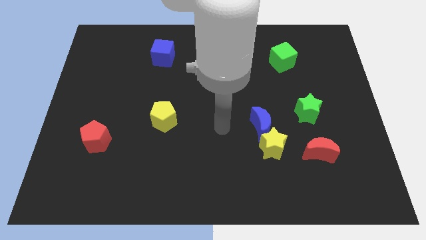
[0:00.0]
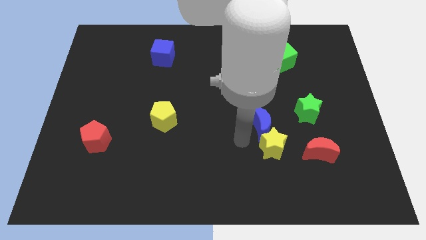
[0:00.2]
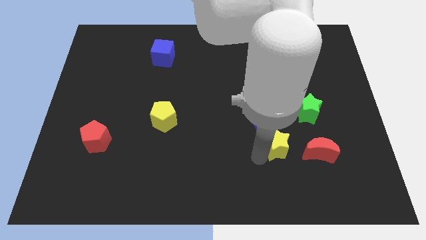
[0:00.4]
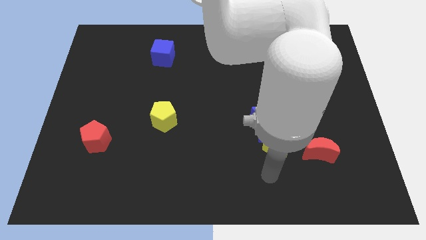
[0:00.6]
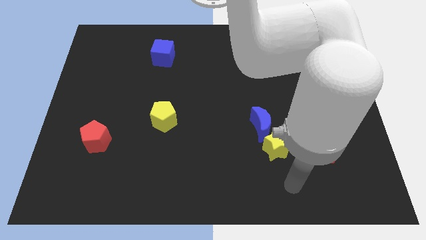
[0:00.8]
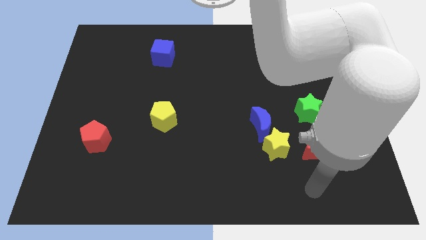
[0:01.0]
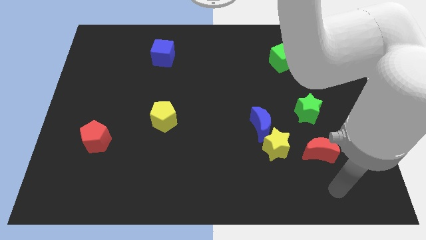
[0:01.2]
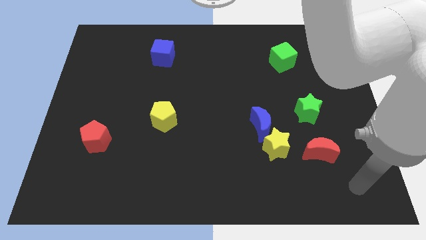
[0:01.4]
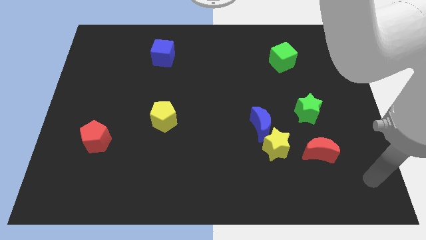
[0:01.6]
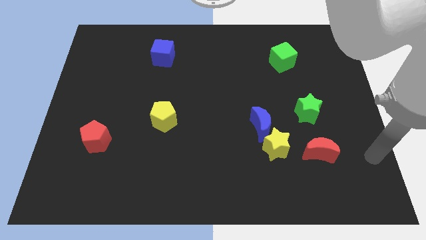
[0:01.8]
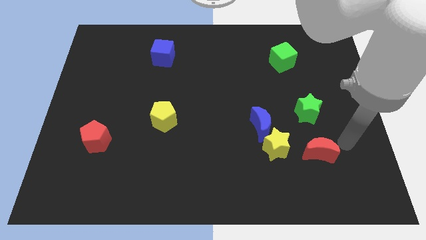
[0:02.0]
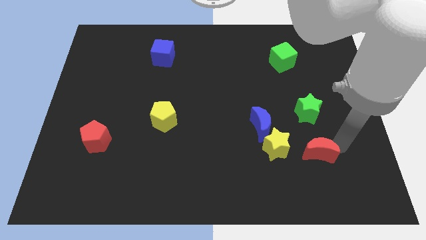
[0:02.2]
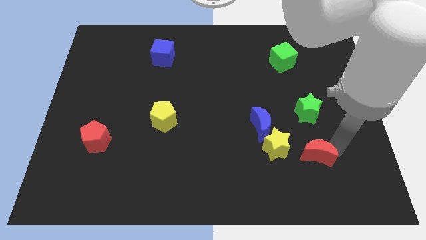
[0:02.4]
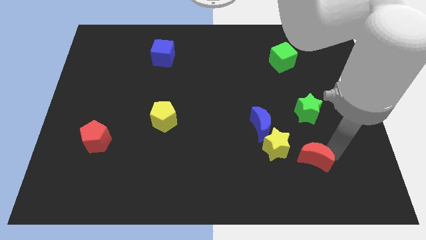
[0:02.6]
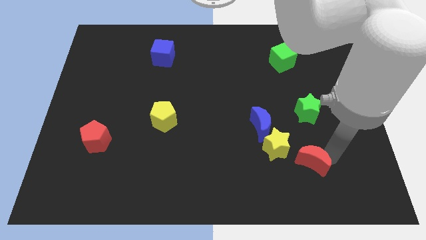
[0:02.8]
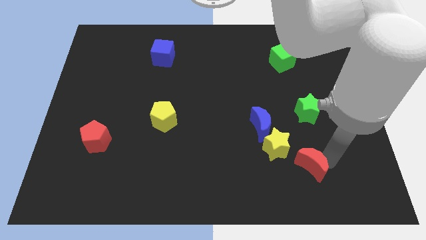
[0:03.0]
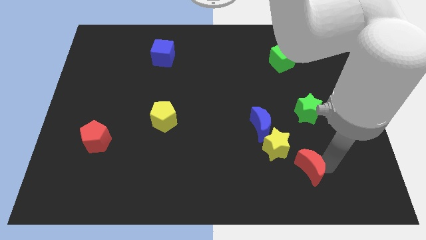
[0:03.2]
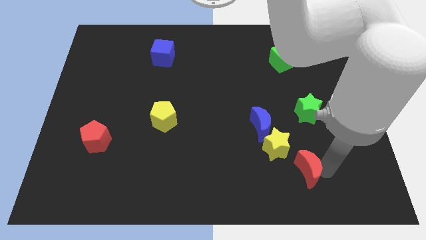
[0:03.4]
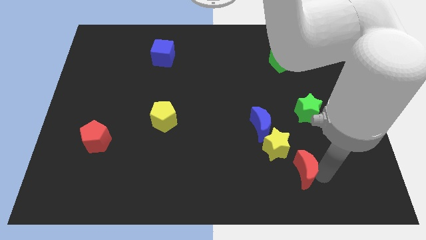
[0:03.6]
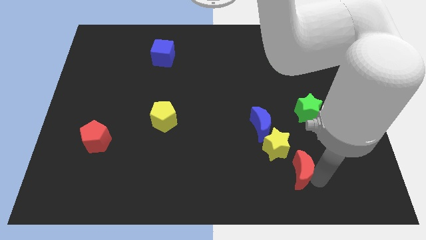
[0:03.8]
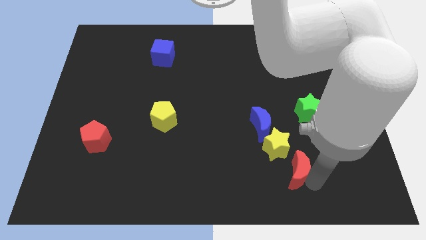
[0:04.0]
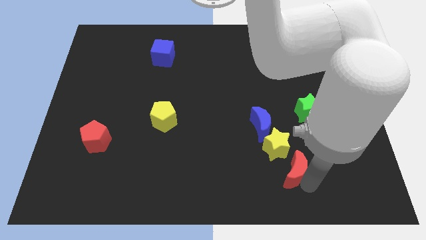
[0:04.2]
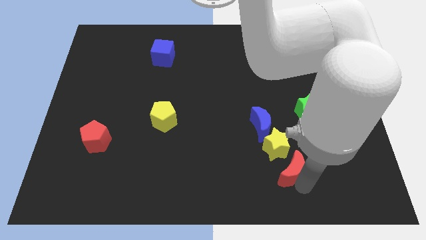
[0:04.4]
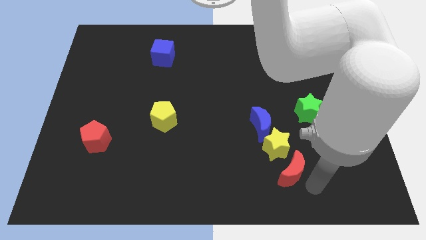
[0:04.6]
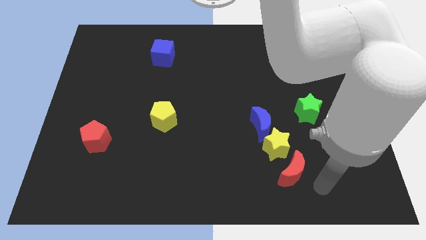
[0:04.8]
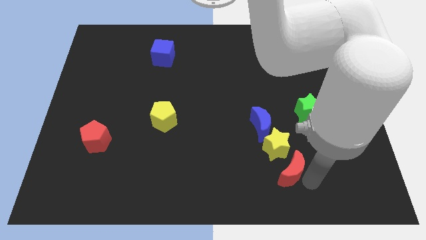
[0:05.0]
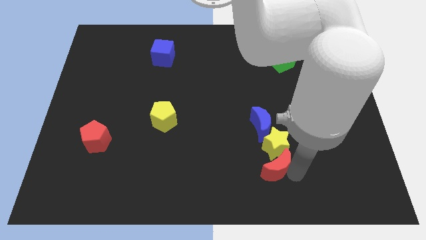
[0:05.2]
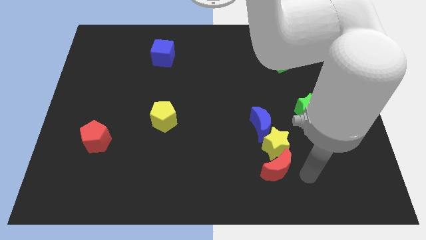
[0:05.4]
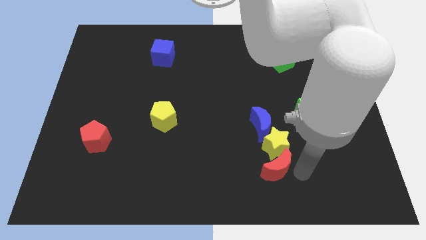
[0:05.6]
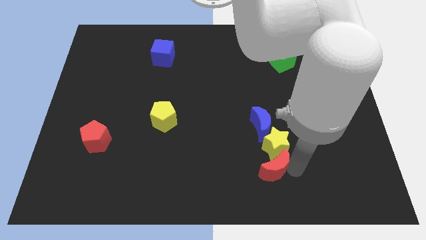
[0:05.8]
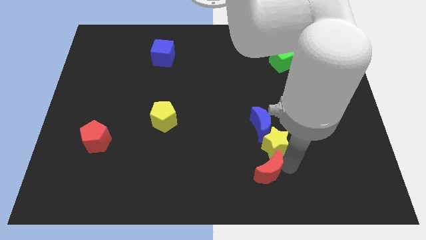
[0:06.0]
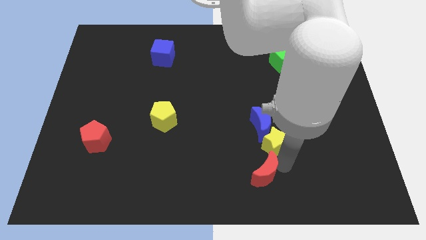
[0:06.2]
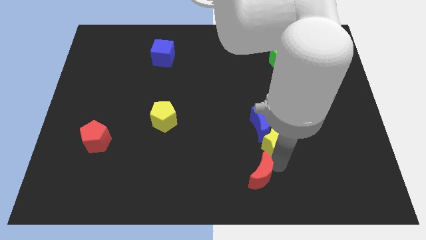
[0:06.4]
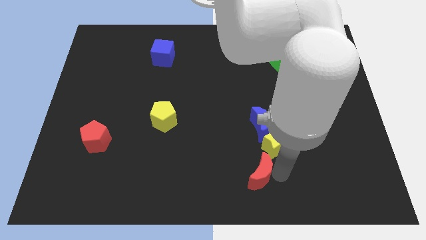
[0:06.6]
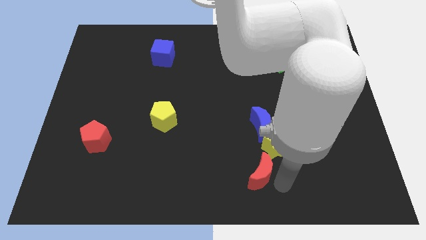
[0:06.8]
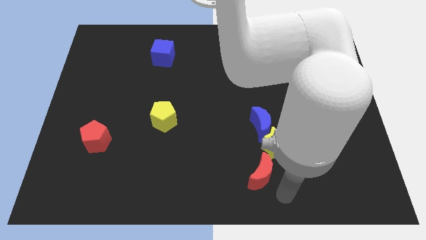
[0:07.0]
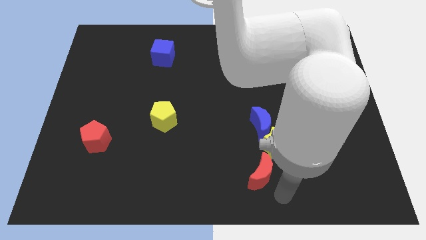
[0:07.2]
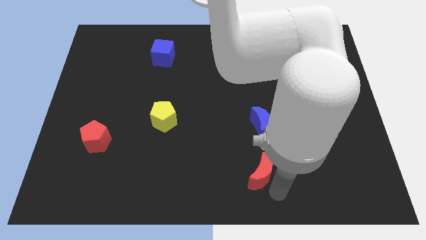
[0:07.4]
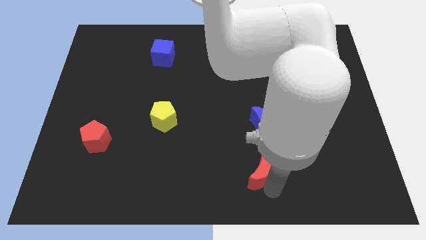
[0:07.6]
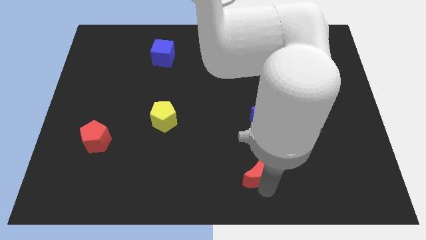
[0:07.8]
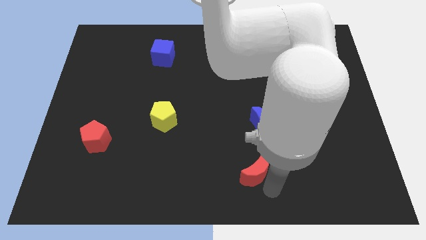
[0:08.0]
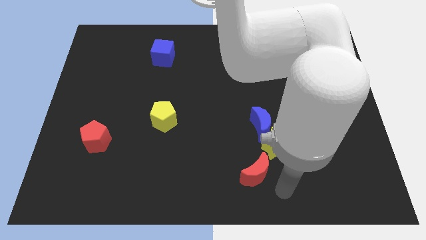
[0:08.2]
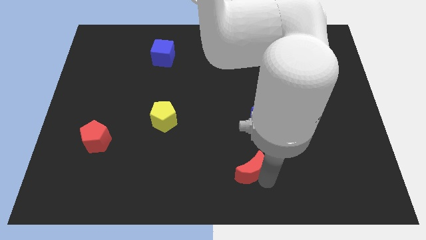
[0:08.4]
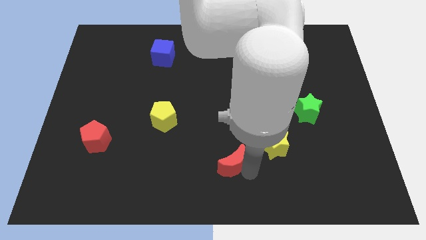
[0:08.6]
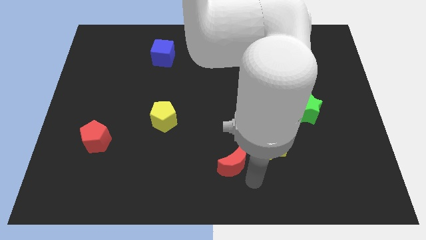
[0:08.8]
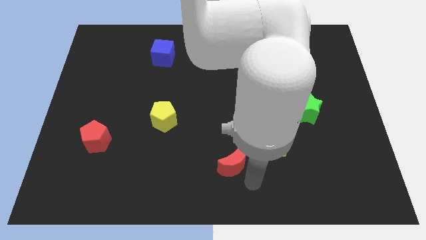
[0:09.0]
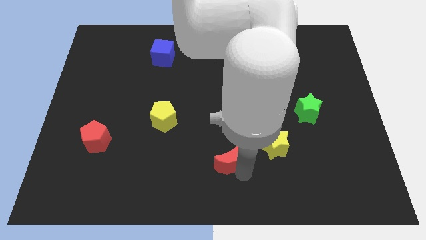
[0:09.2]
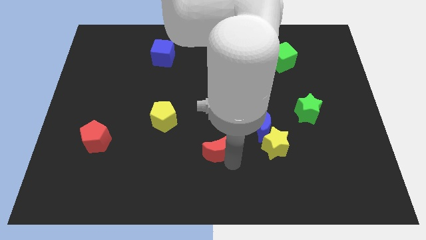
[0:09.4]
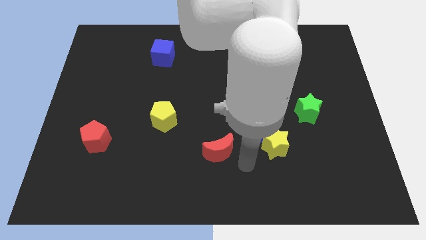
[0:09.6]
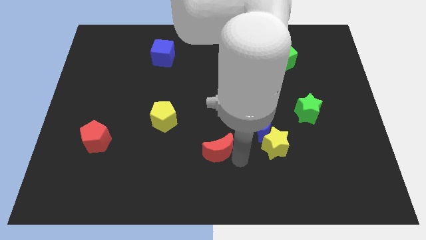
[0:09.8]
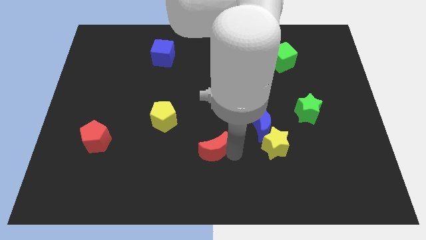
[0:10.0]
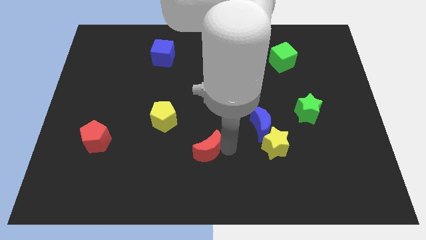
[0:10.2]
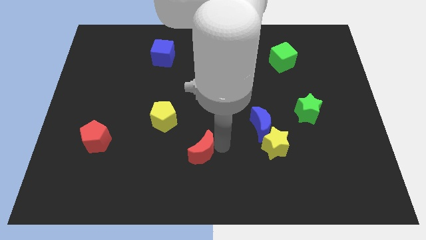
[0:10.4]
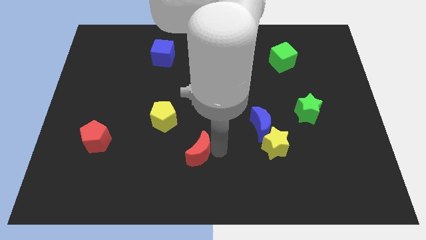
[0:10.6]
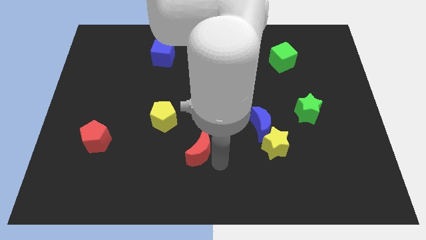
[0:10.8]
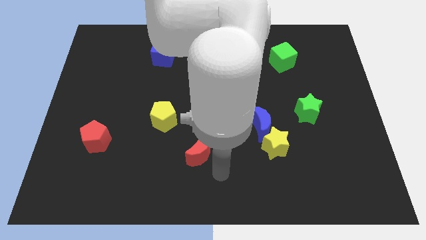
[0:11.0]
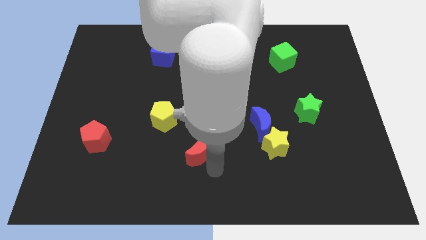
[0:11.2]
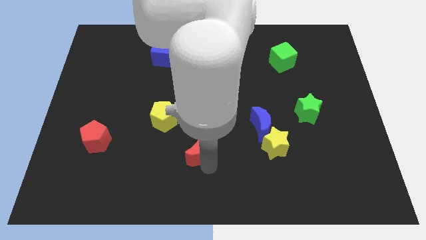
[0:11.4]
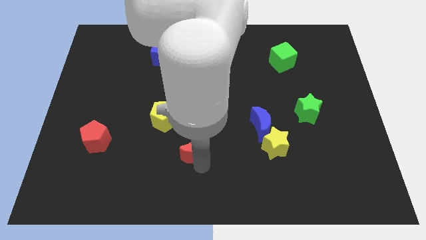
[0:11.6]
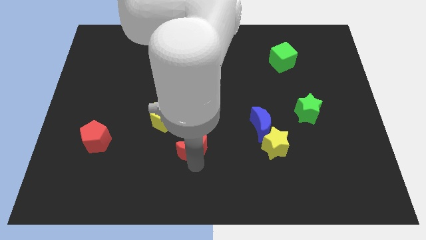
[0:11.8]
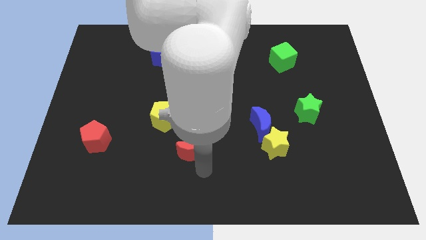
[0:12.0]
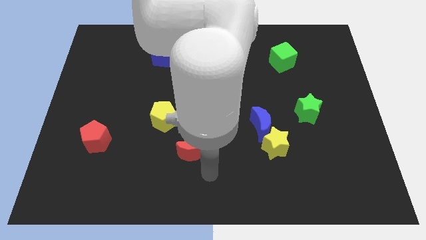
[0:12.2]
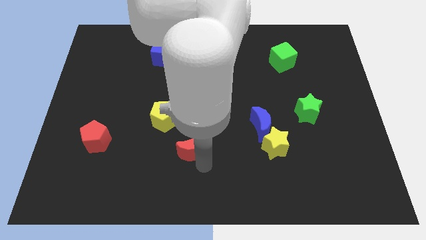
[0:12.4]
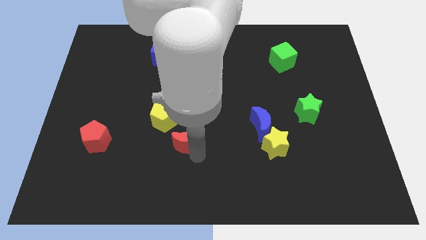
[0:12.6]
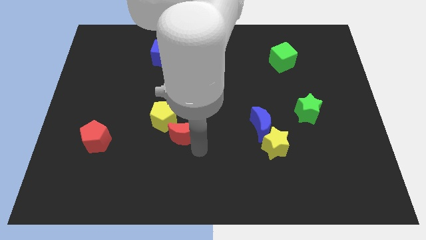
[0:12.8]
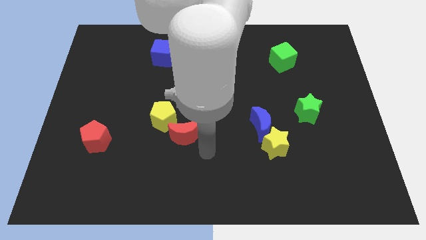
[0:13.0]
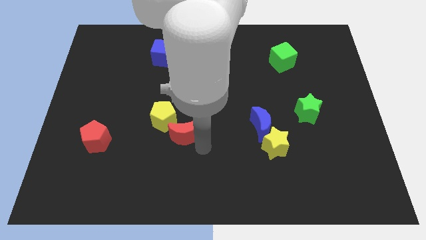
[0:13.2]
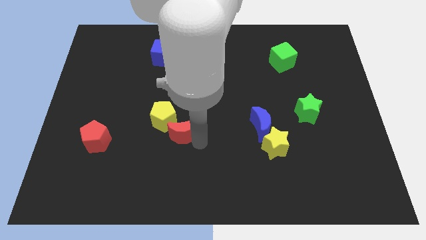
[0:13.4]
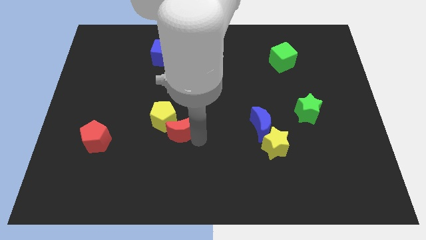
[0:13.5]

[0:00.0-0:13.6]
put the red moon to the yellow pentagon

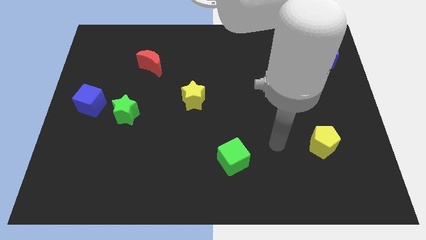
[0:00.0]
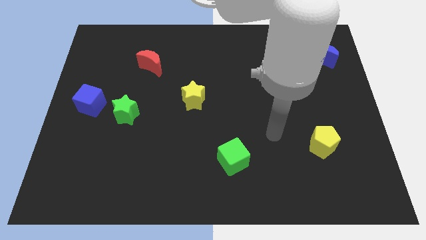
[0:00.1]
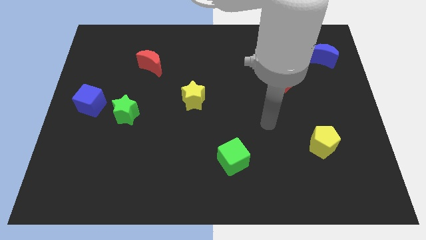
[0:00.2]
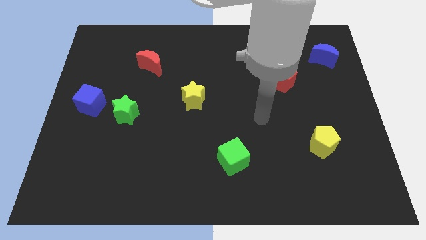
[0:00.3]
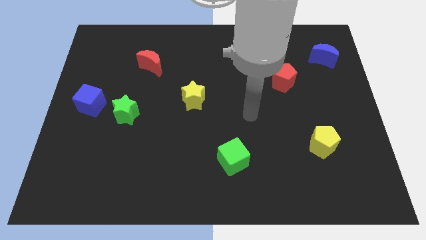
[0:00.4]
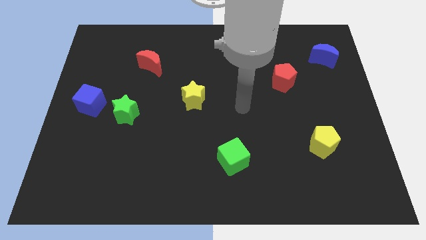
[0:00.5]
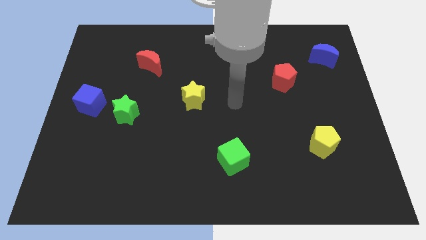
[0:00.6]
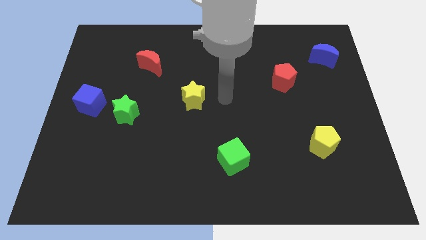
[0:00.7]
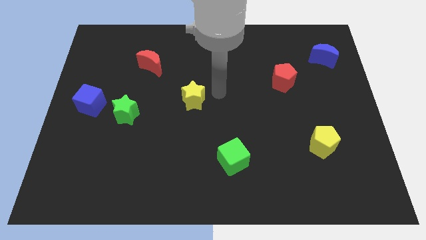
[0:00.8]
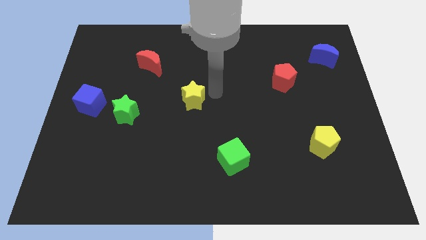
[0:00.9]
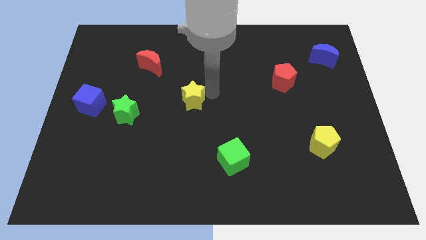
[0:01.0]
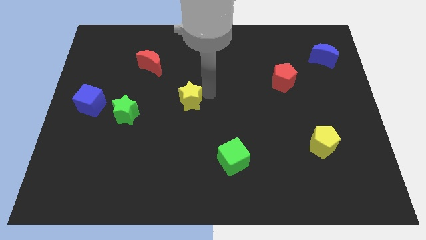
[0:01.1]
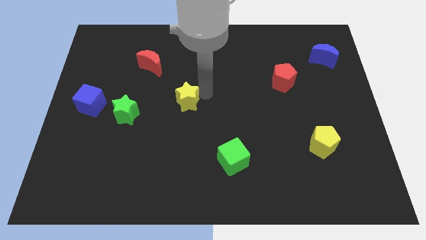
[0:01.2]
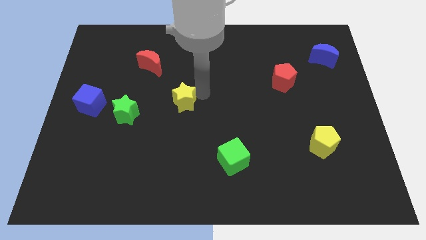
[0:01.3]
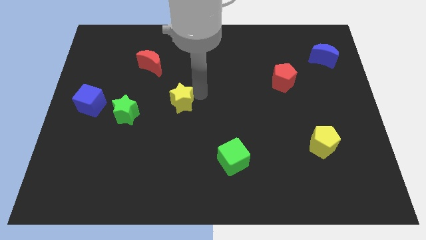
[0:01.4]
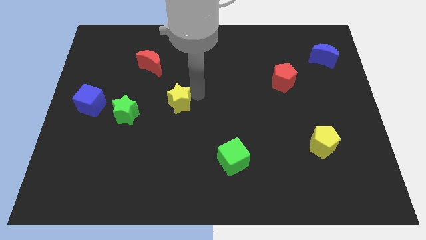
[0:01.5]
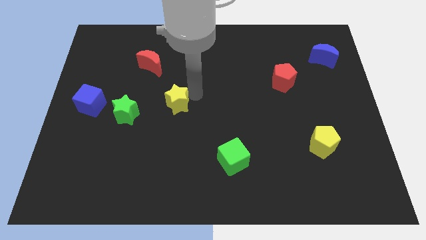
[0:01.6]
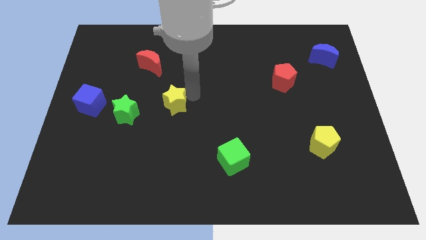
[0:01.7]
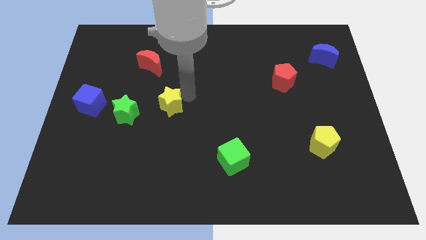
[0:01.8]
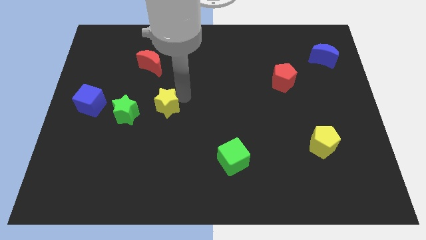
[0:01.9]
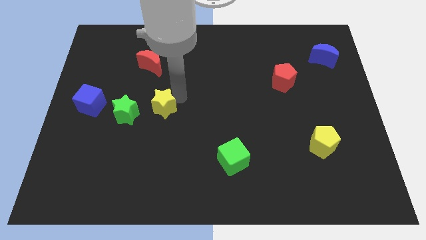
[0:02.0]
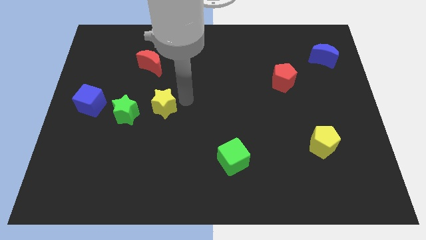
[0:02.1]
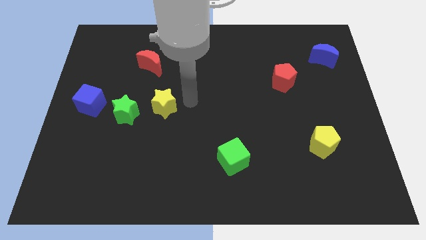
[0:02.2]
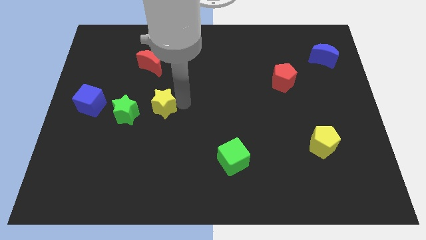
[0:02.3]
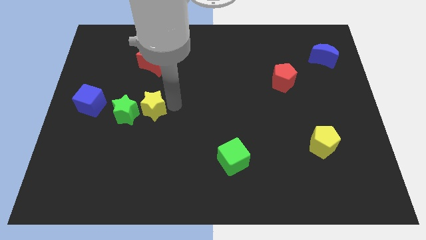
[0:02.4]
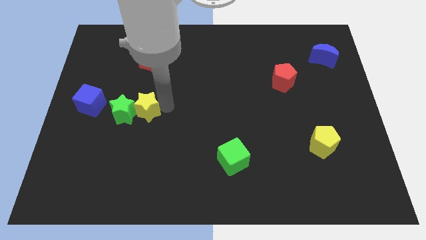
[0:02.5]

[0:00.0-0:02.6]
push the yellow star close to the green star
